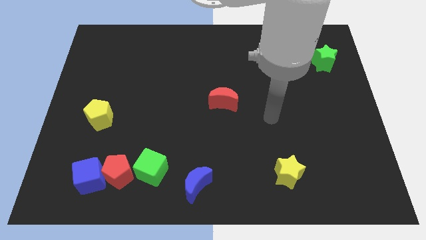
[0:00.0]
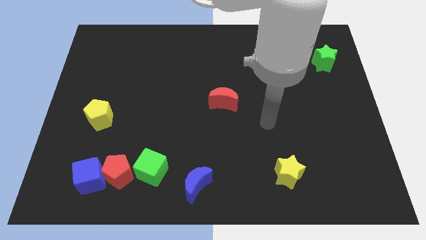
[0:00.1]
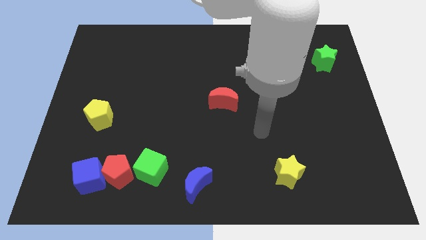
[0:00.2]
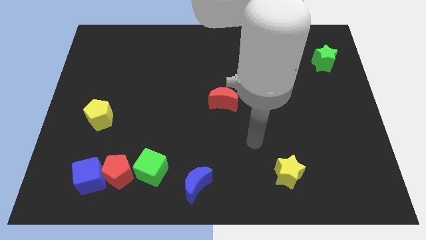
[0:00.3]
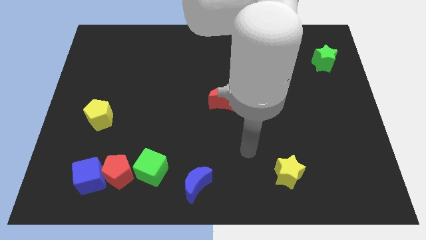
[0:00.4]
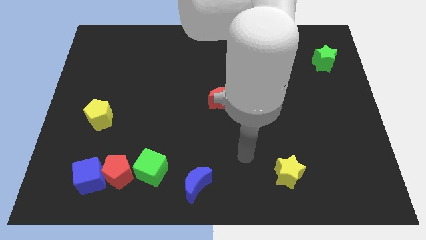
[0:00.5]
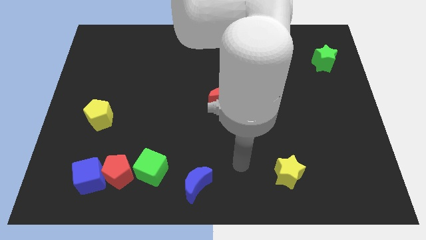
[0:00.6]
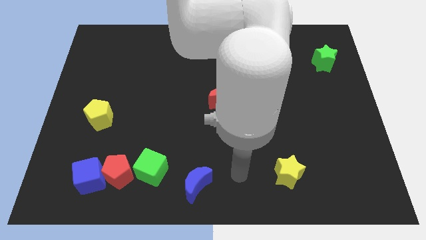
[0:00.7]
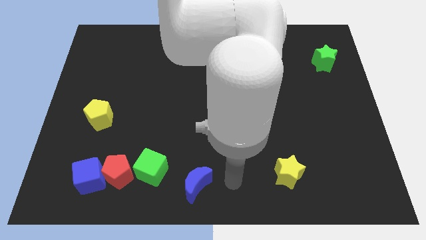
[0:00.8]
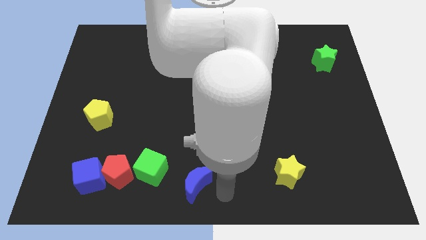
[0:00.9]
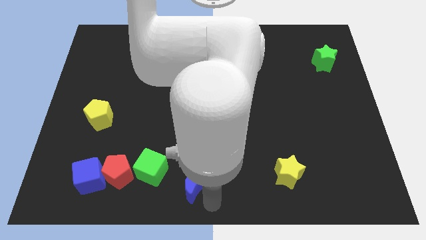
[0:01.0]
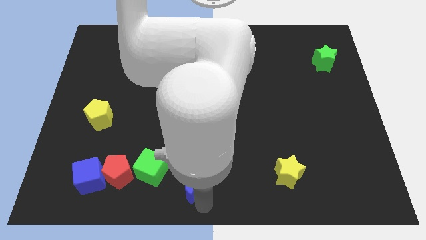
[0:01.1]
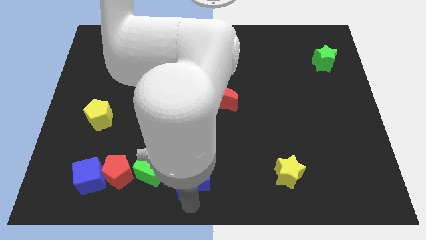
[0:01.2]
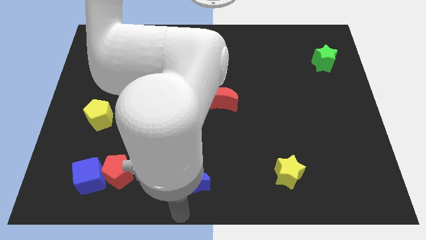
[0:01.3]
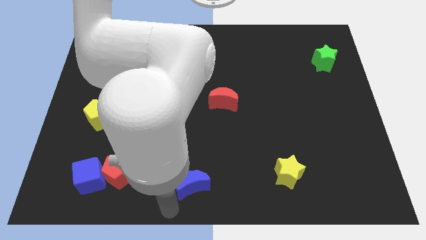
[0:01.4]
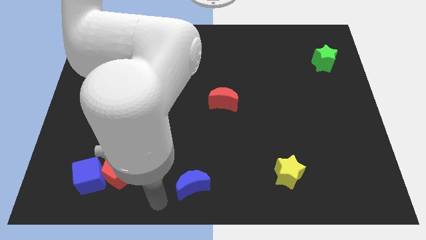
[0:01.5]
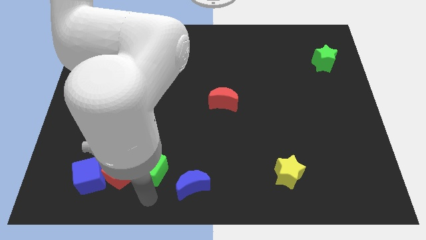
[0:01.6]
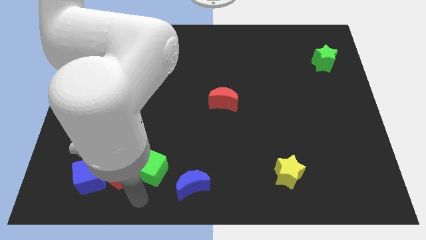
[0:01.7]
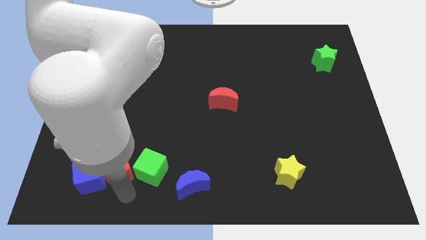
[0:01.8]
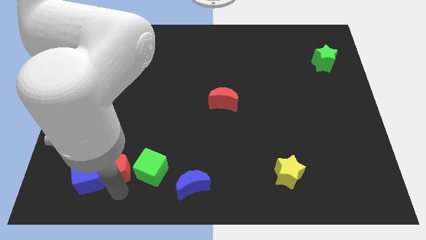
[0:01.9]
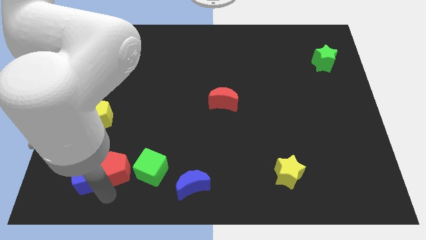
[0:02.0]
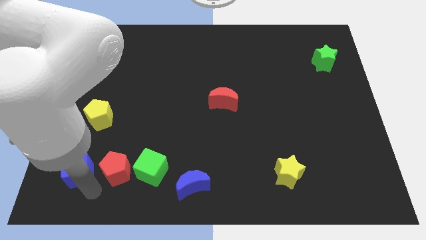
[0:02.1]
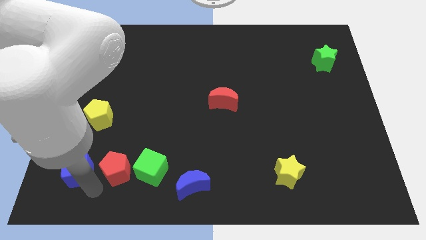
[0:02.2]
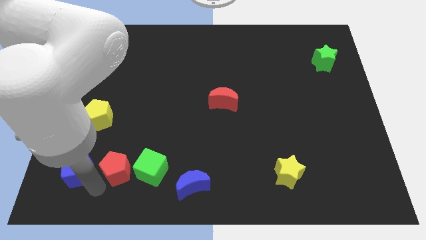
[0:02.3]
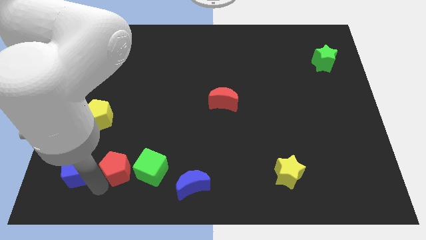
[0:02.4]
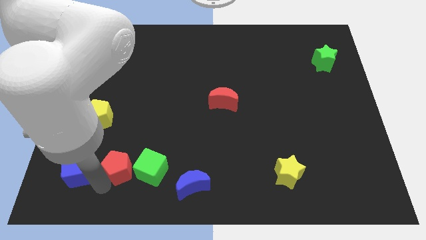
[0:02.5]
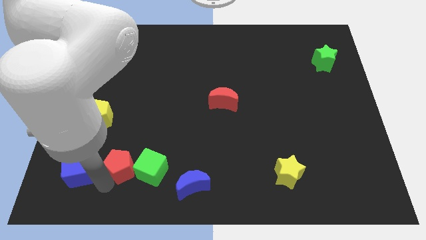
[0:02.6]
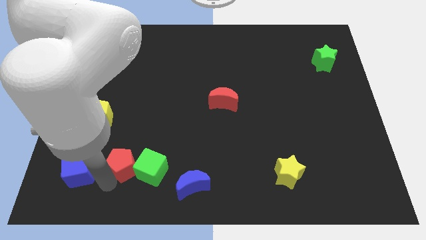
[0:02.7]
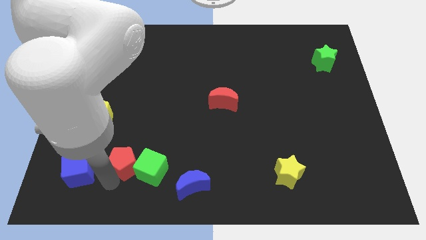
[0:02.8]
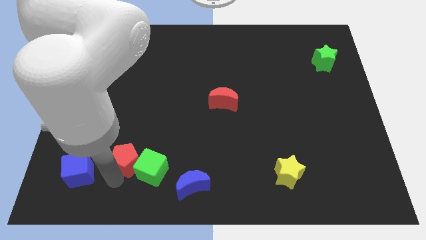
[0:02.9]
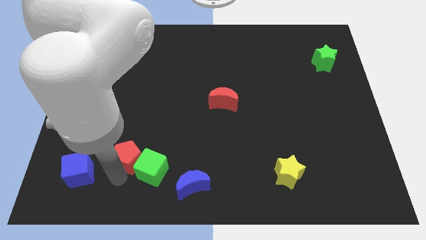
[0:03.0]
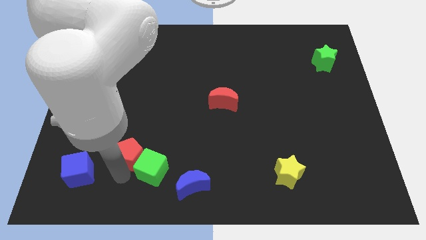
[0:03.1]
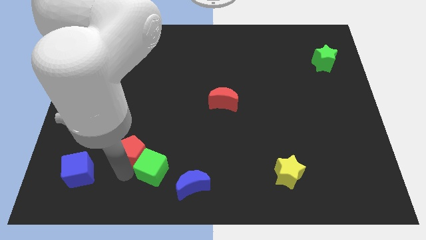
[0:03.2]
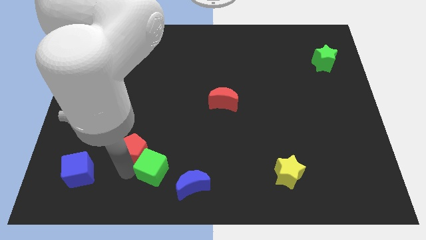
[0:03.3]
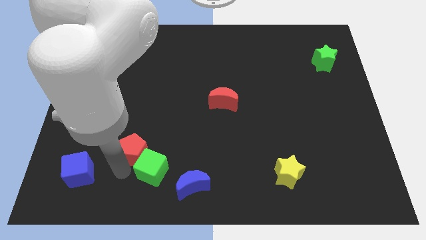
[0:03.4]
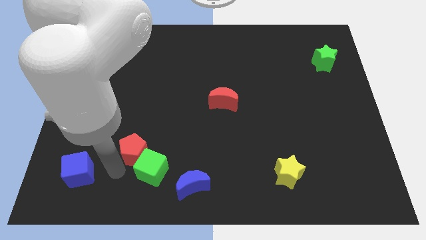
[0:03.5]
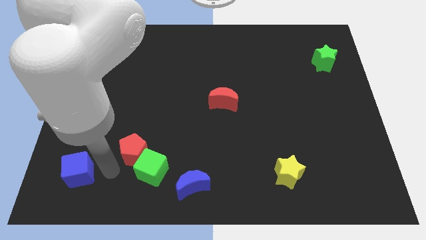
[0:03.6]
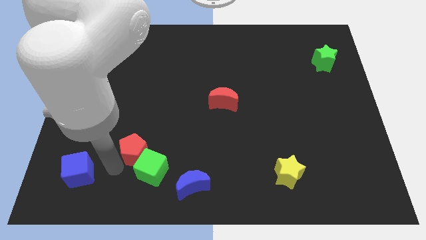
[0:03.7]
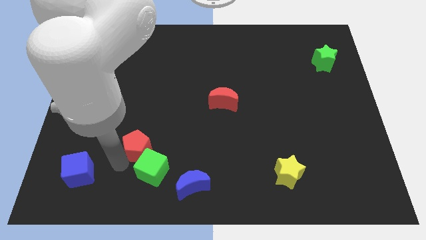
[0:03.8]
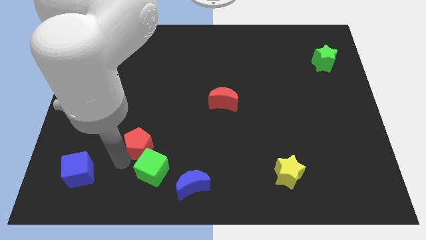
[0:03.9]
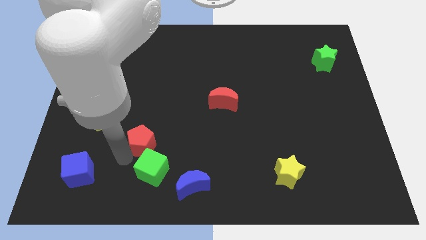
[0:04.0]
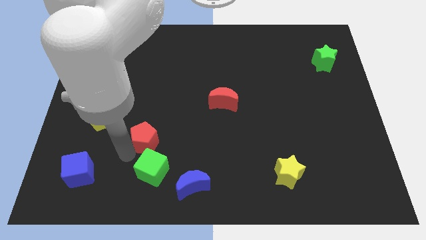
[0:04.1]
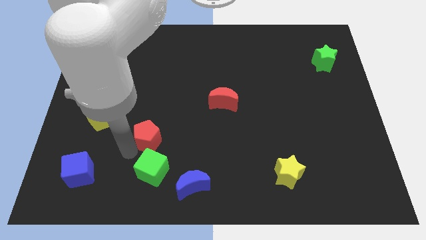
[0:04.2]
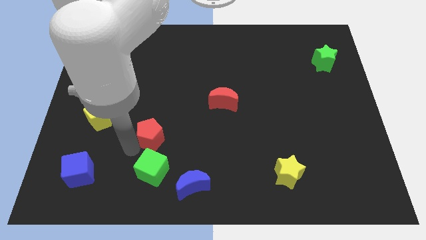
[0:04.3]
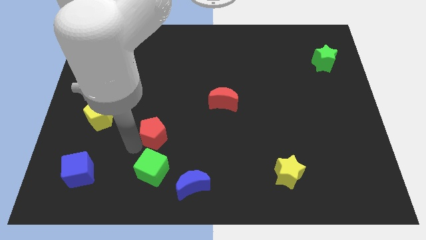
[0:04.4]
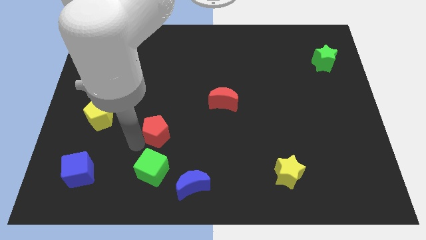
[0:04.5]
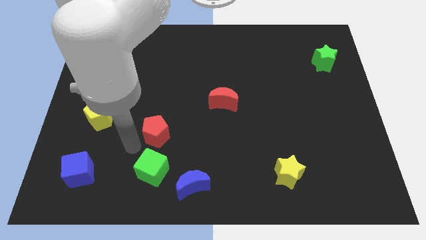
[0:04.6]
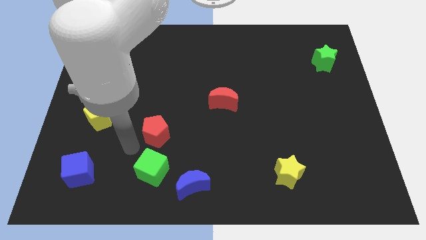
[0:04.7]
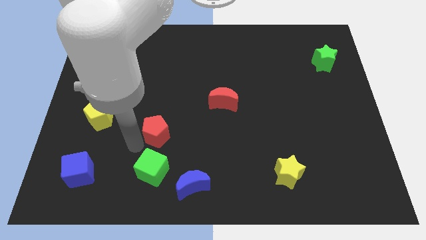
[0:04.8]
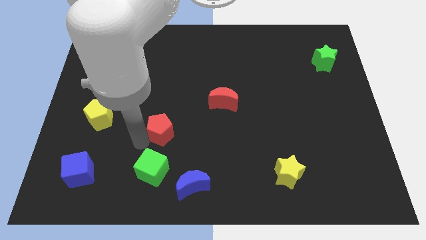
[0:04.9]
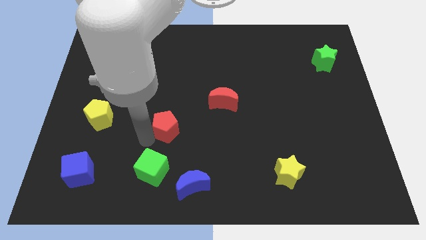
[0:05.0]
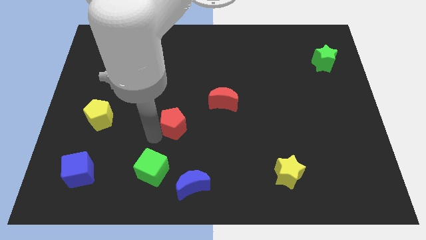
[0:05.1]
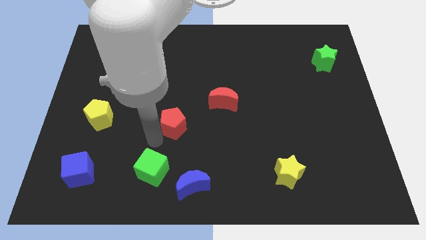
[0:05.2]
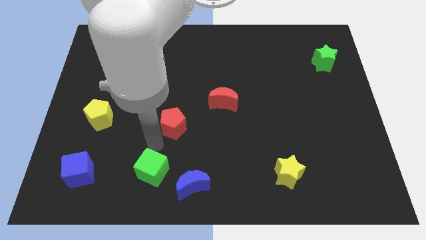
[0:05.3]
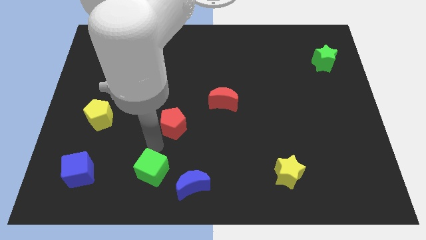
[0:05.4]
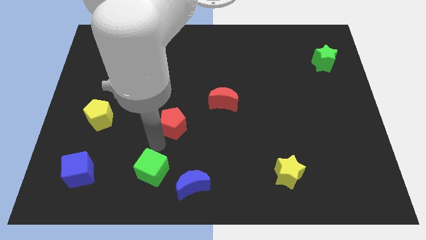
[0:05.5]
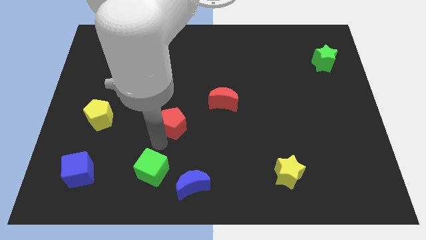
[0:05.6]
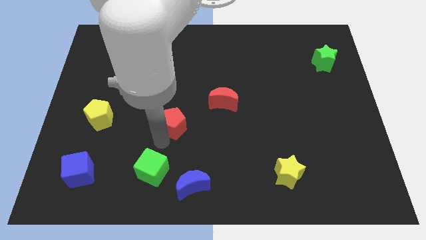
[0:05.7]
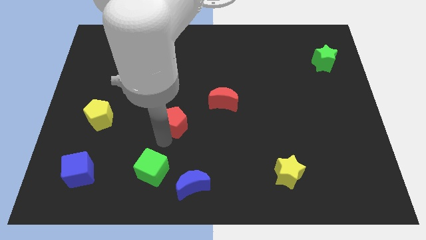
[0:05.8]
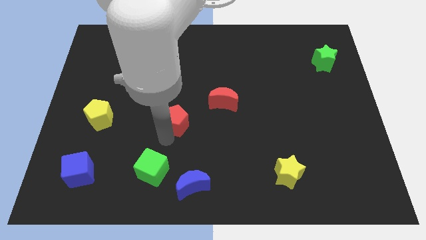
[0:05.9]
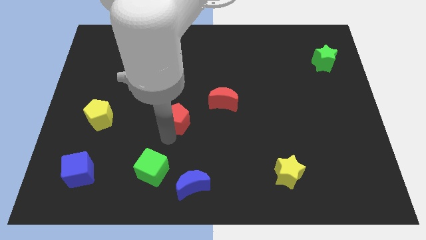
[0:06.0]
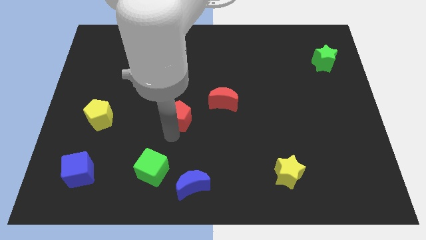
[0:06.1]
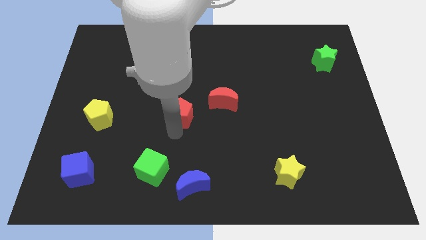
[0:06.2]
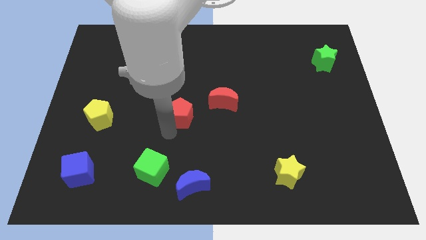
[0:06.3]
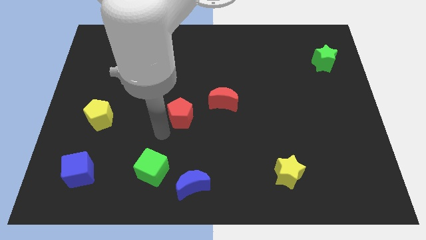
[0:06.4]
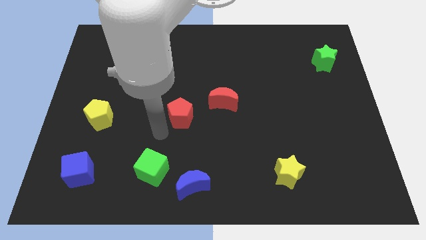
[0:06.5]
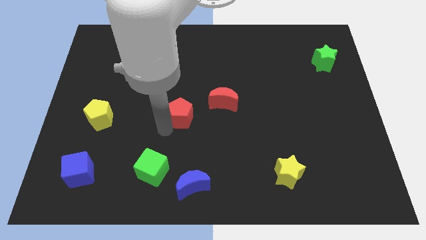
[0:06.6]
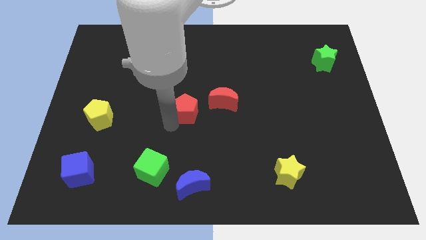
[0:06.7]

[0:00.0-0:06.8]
move the red pentagon upwards and then right

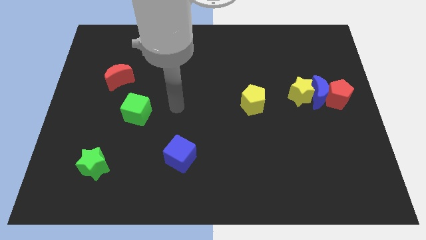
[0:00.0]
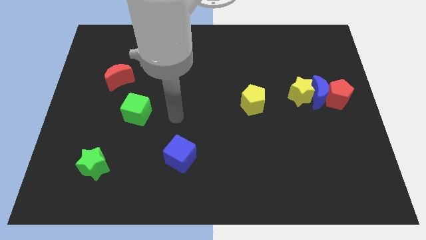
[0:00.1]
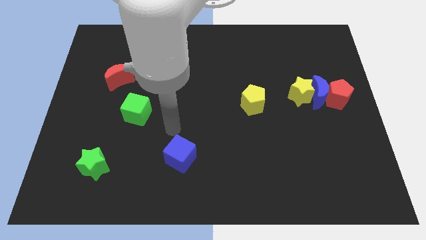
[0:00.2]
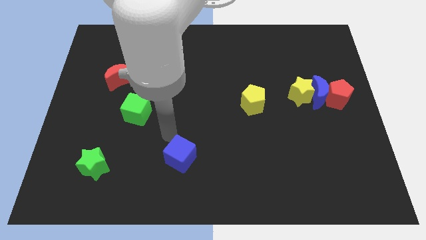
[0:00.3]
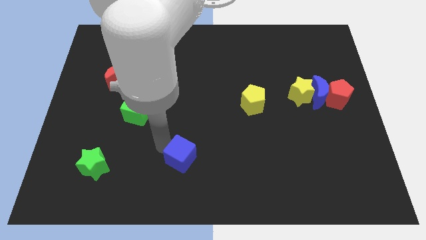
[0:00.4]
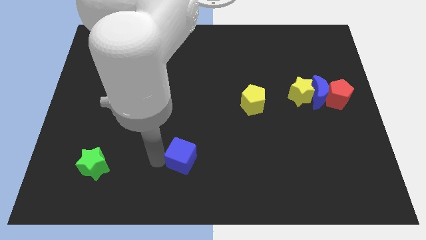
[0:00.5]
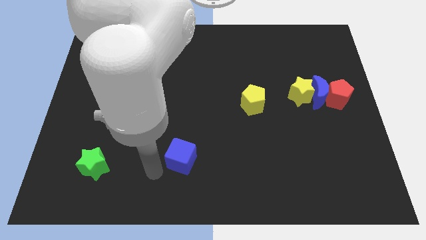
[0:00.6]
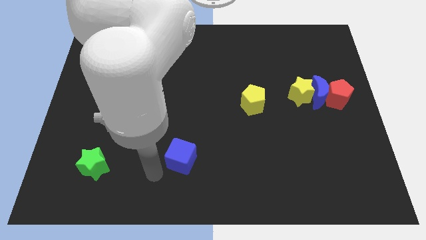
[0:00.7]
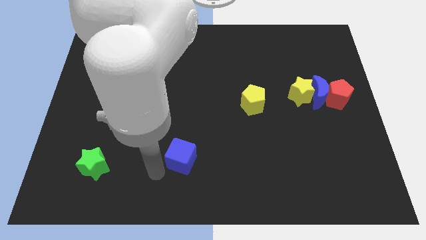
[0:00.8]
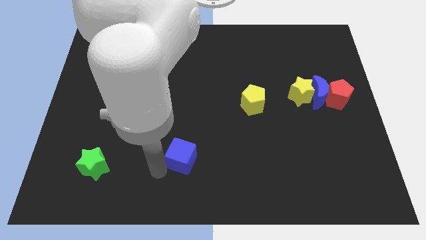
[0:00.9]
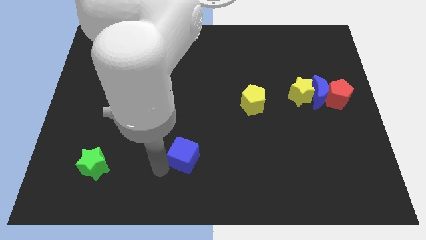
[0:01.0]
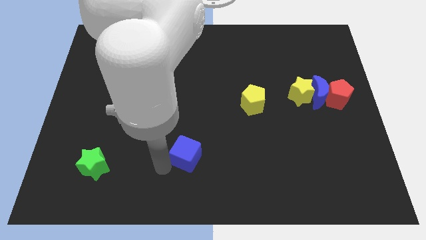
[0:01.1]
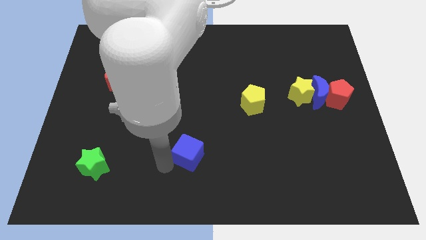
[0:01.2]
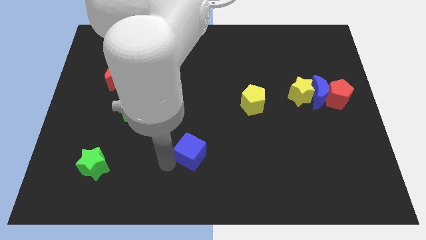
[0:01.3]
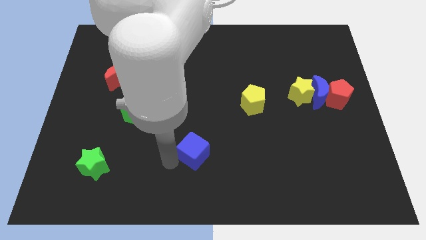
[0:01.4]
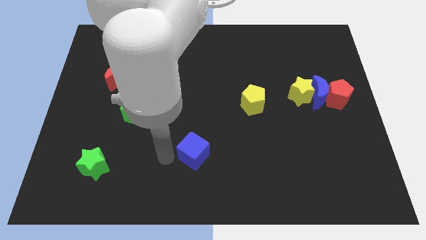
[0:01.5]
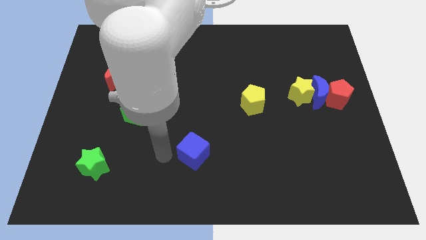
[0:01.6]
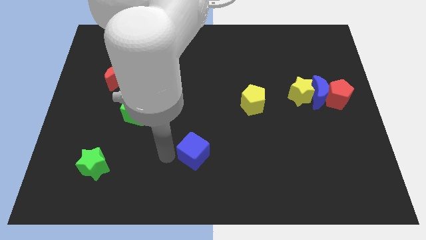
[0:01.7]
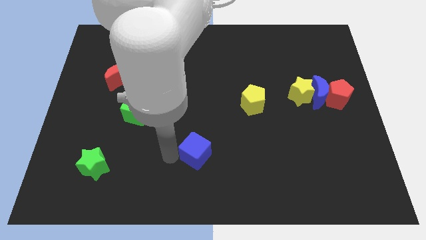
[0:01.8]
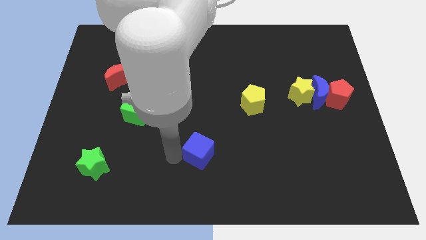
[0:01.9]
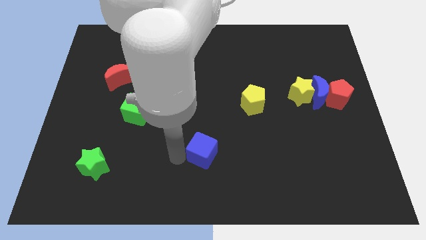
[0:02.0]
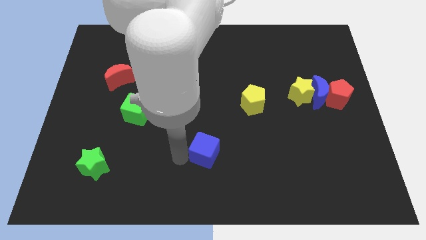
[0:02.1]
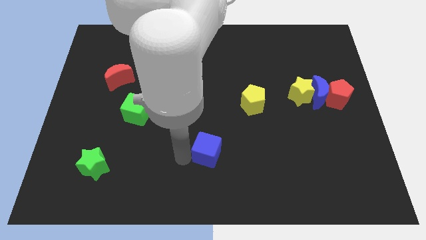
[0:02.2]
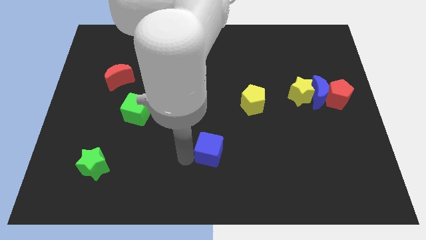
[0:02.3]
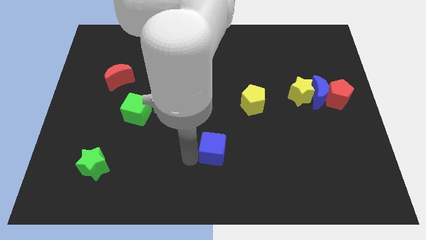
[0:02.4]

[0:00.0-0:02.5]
slightly slide the blue cube to the right
